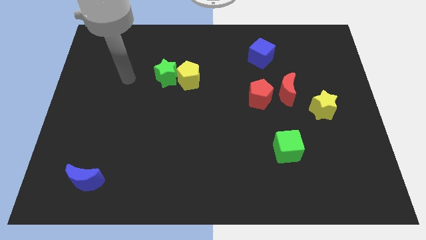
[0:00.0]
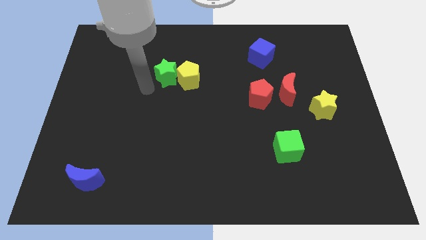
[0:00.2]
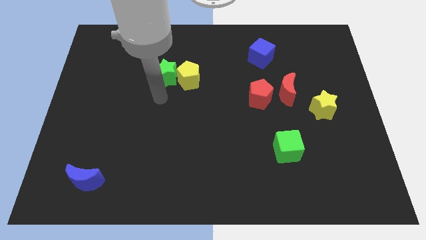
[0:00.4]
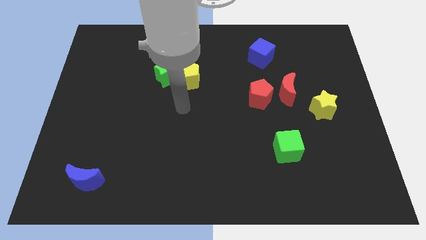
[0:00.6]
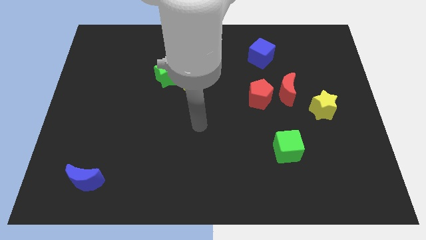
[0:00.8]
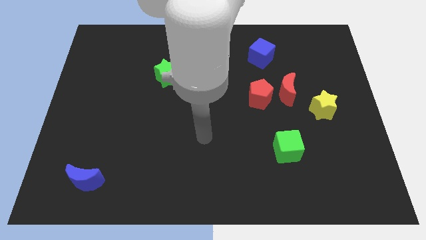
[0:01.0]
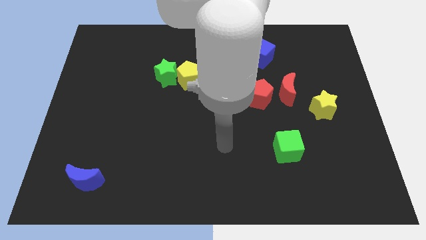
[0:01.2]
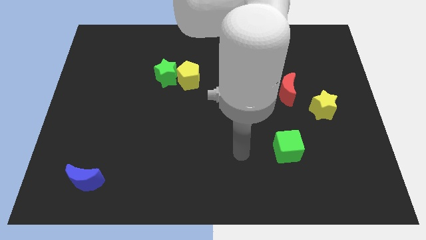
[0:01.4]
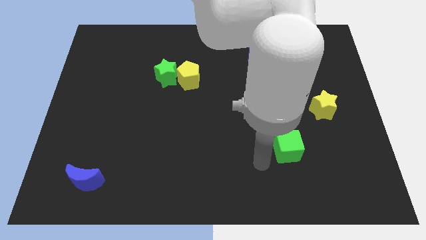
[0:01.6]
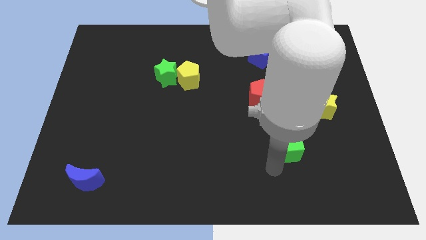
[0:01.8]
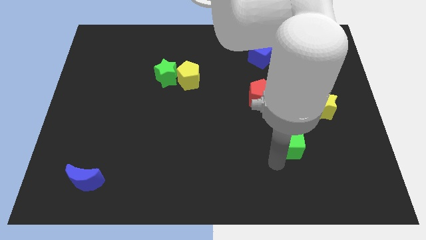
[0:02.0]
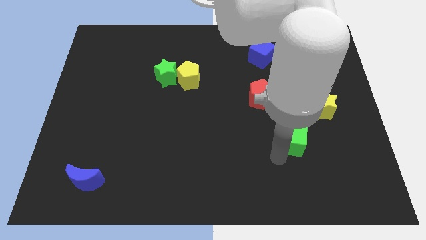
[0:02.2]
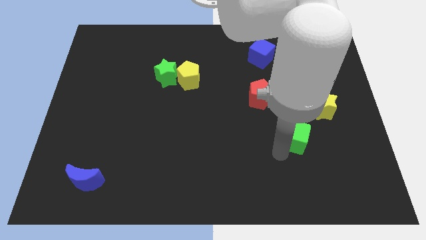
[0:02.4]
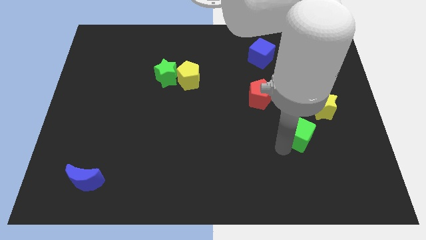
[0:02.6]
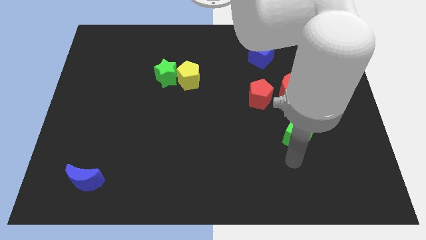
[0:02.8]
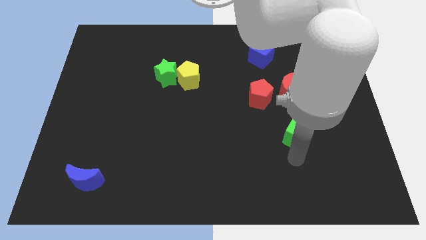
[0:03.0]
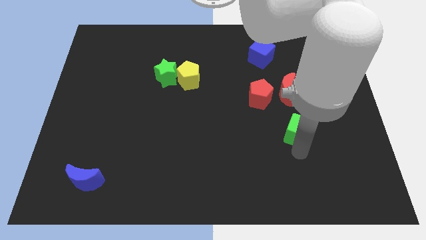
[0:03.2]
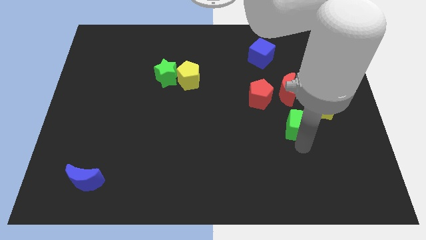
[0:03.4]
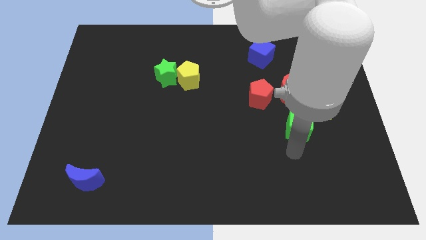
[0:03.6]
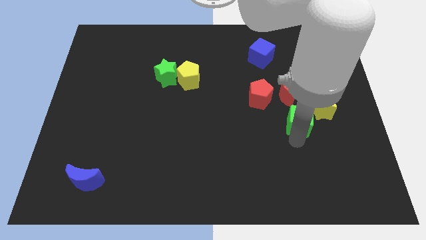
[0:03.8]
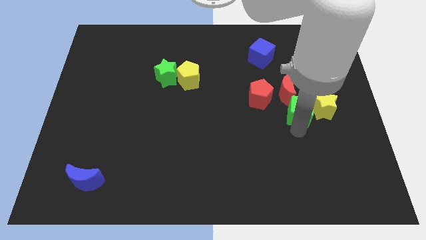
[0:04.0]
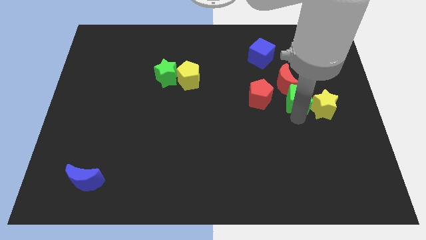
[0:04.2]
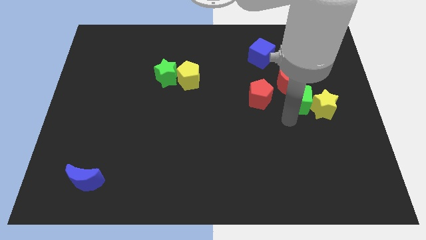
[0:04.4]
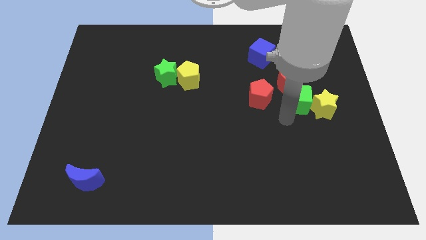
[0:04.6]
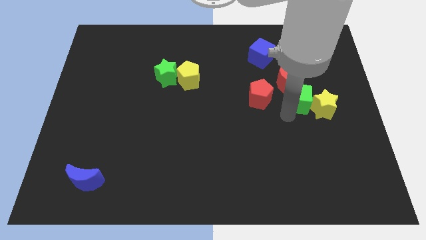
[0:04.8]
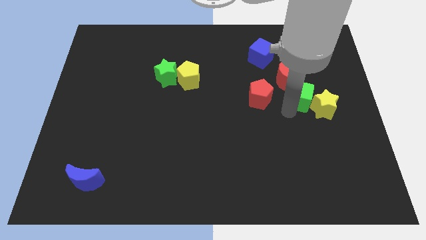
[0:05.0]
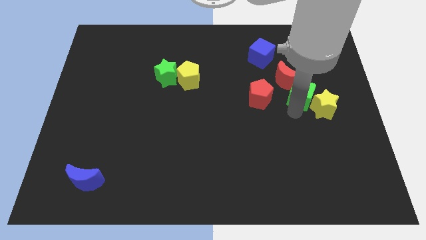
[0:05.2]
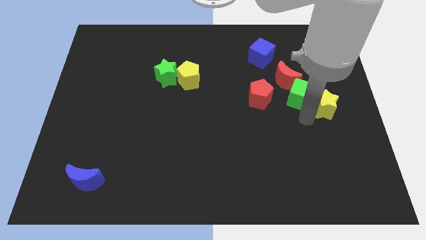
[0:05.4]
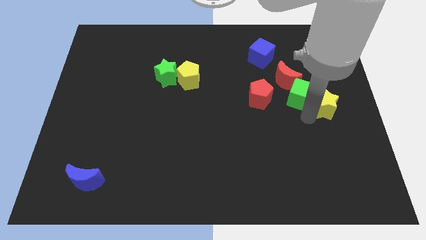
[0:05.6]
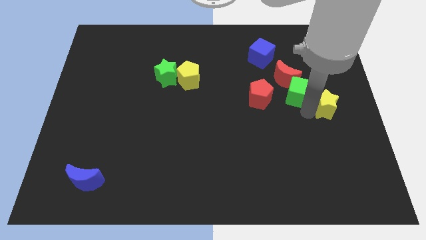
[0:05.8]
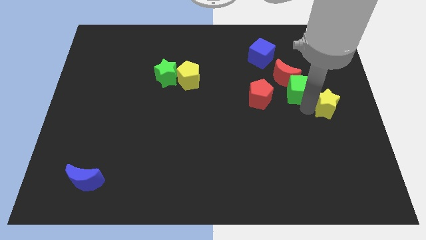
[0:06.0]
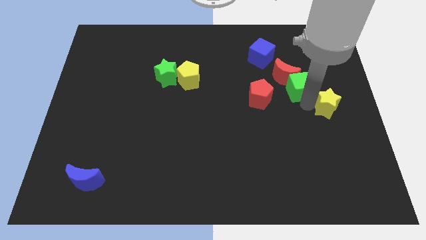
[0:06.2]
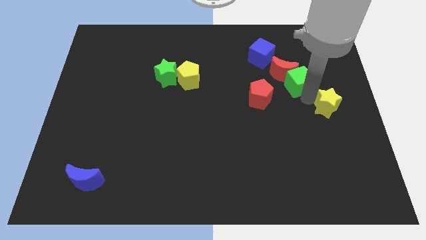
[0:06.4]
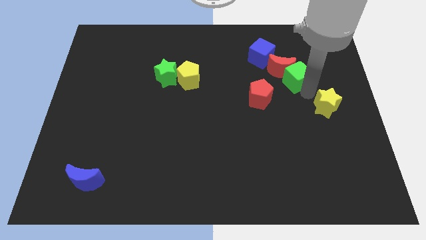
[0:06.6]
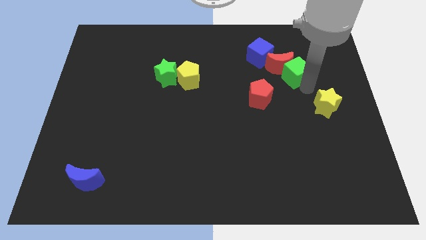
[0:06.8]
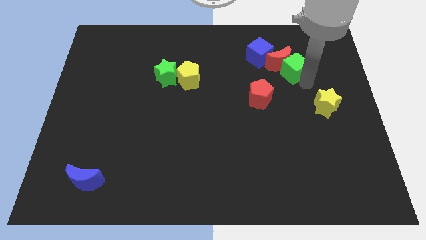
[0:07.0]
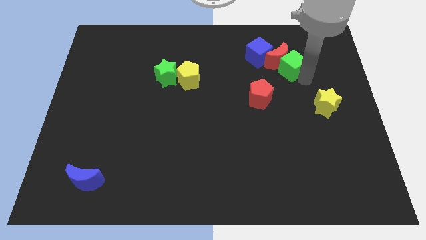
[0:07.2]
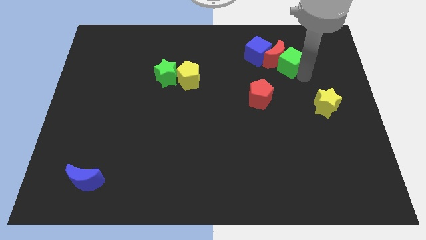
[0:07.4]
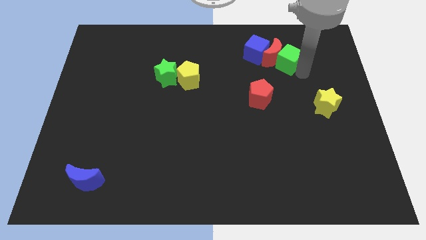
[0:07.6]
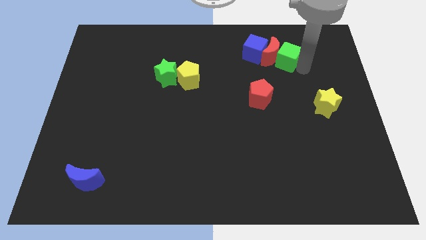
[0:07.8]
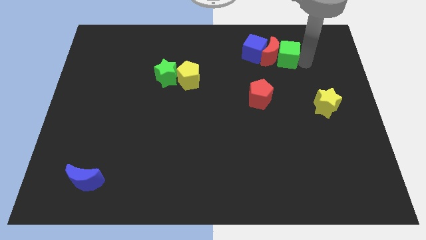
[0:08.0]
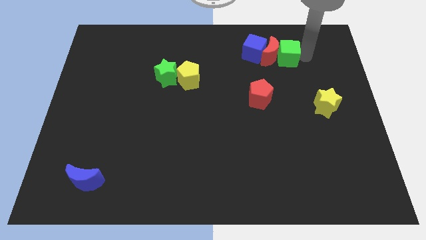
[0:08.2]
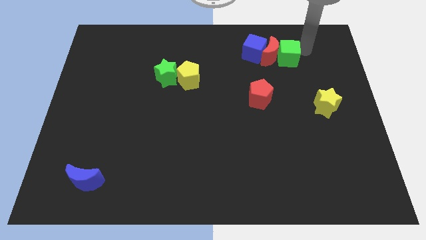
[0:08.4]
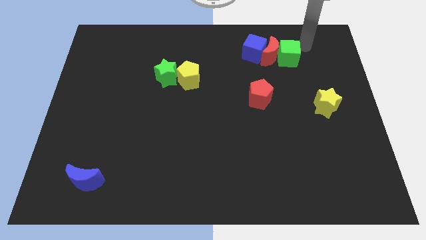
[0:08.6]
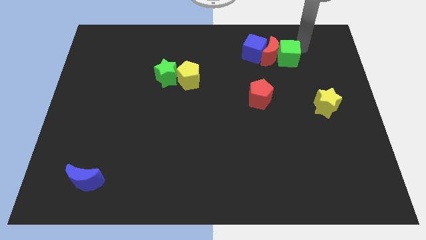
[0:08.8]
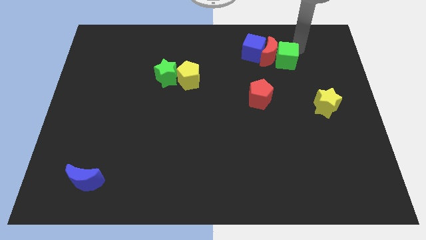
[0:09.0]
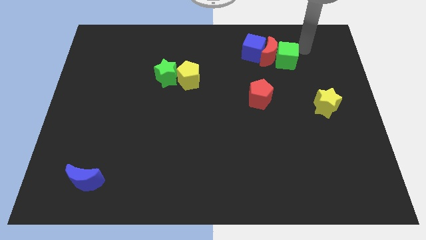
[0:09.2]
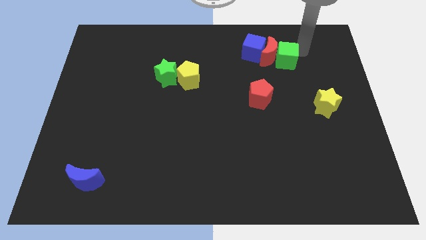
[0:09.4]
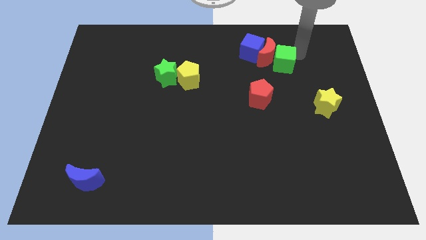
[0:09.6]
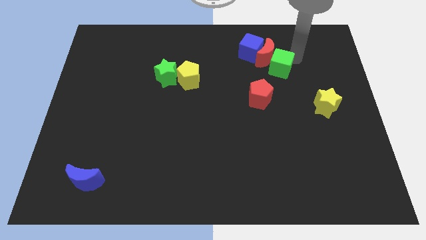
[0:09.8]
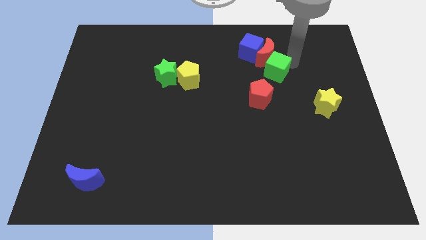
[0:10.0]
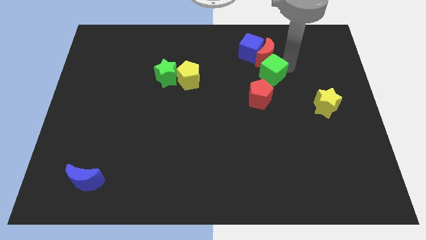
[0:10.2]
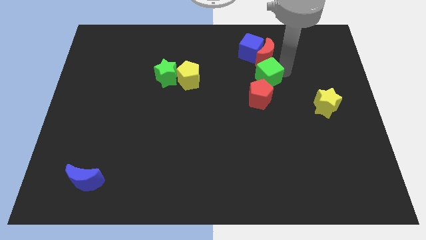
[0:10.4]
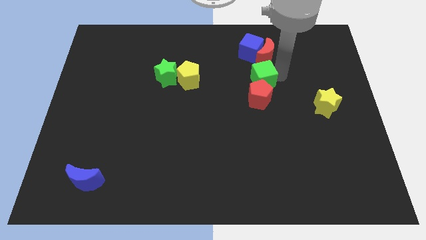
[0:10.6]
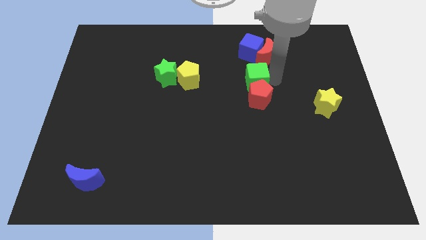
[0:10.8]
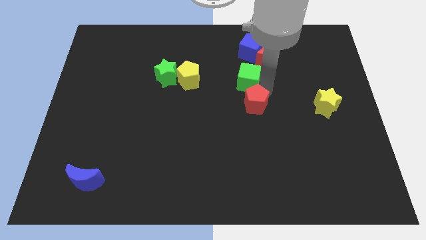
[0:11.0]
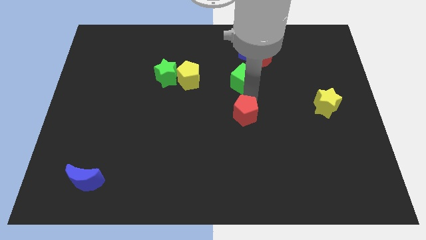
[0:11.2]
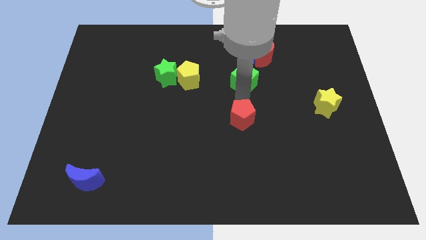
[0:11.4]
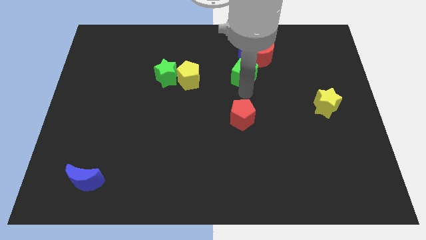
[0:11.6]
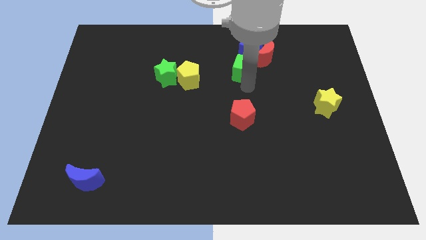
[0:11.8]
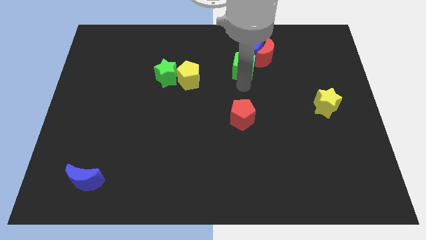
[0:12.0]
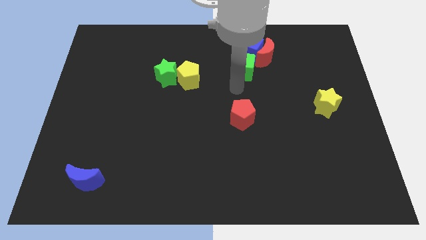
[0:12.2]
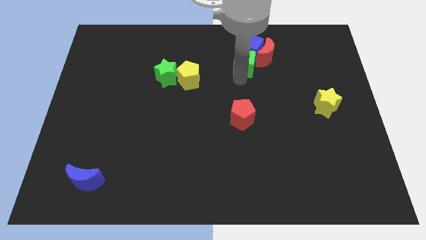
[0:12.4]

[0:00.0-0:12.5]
push the green cube close to the blue cube
